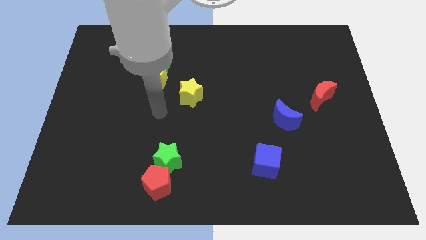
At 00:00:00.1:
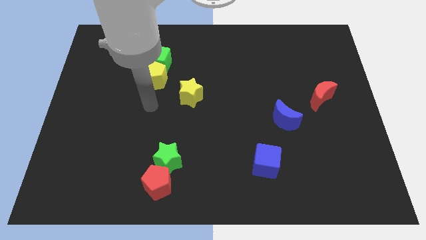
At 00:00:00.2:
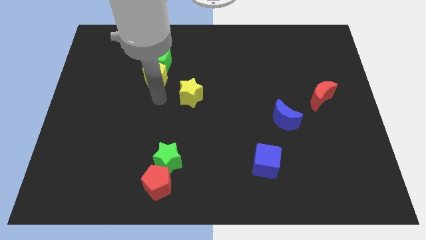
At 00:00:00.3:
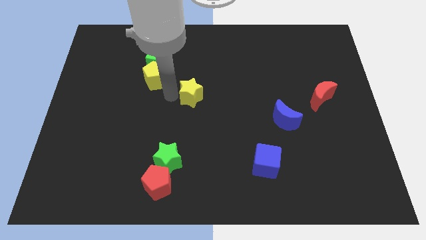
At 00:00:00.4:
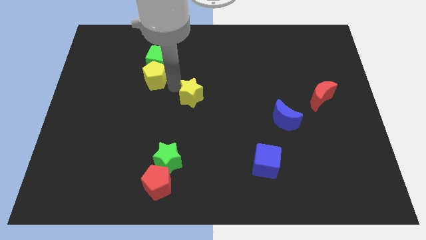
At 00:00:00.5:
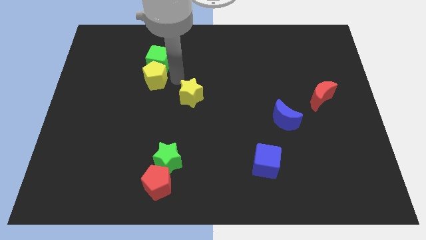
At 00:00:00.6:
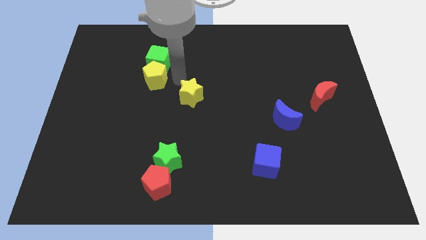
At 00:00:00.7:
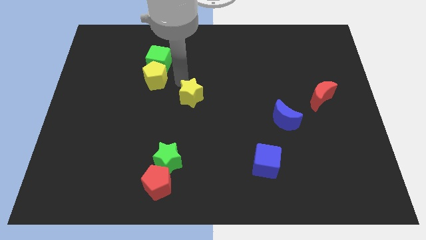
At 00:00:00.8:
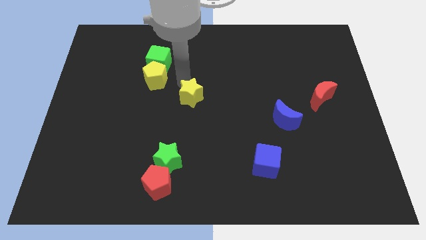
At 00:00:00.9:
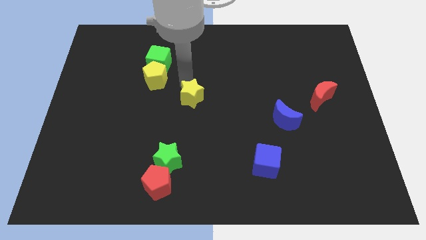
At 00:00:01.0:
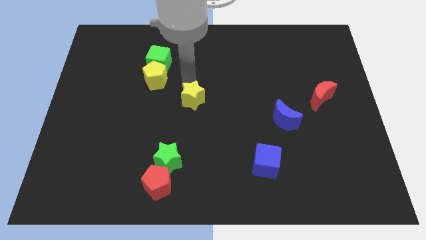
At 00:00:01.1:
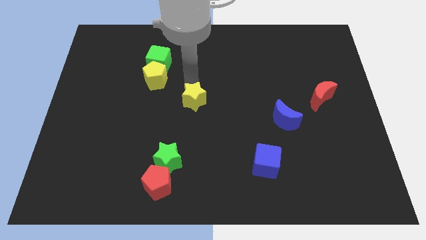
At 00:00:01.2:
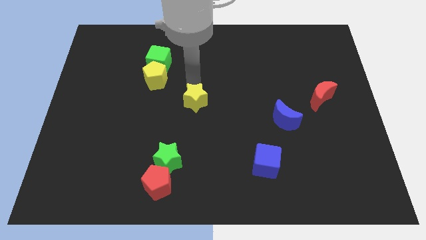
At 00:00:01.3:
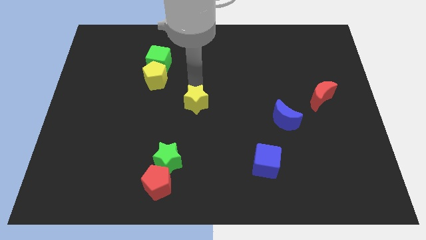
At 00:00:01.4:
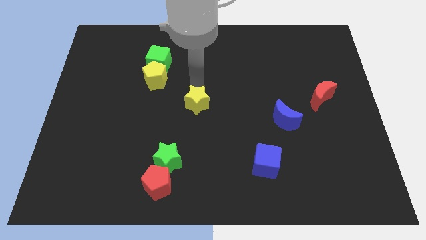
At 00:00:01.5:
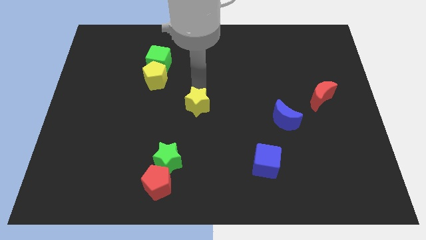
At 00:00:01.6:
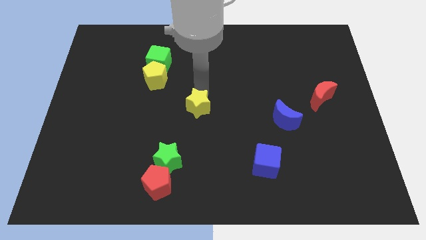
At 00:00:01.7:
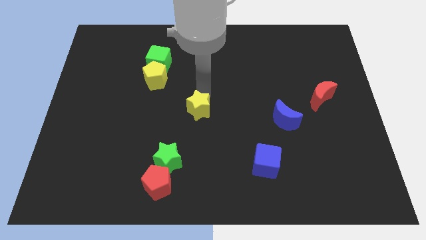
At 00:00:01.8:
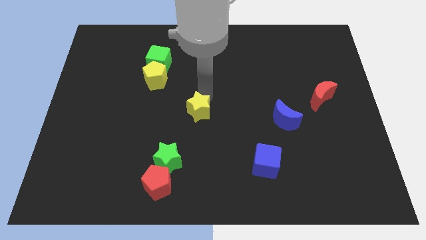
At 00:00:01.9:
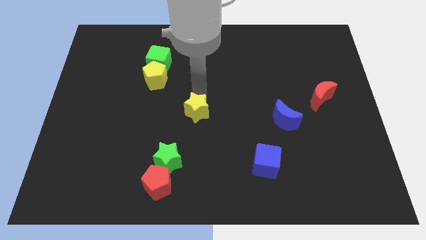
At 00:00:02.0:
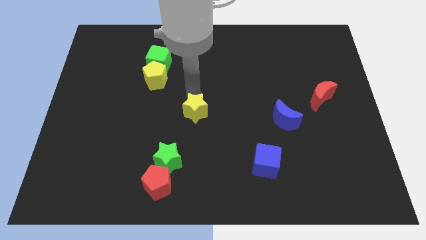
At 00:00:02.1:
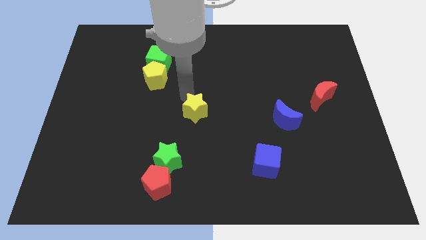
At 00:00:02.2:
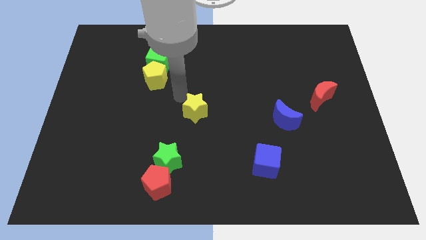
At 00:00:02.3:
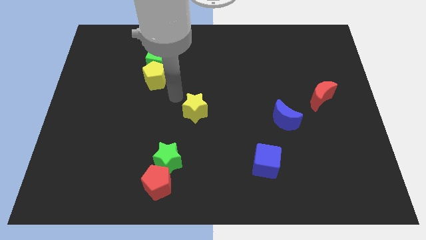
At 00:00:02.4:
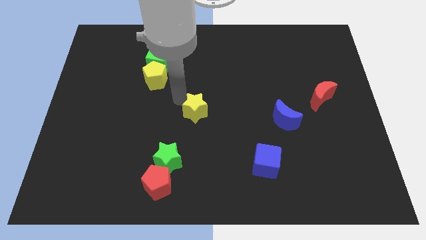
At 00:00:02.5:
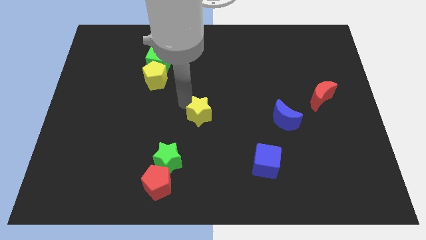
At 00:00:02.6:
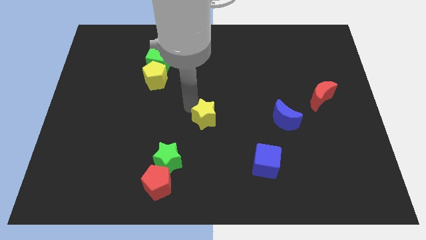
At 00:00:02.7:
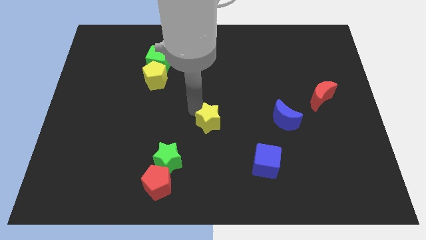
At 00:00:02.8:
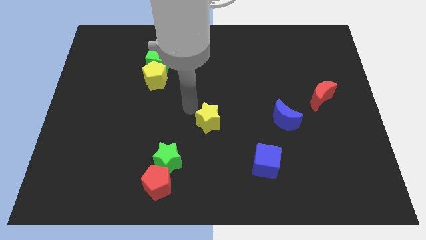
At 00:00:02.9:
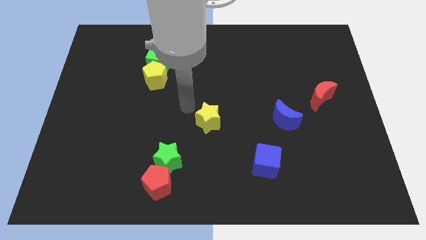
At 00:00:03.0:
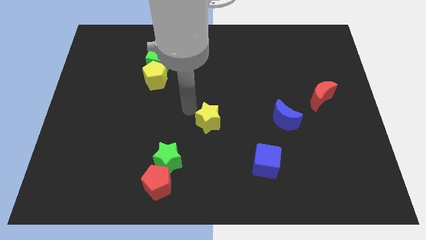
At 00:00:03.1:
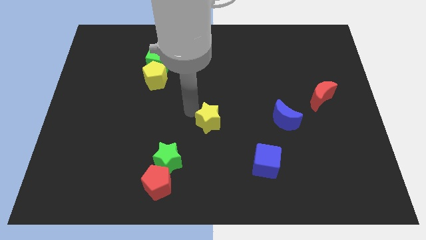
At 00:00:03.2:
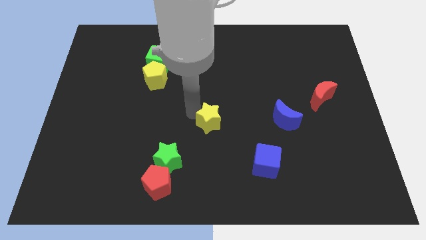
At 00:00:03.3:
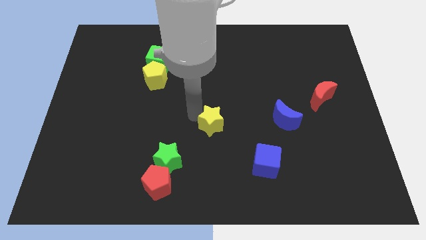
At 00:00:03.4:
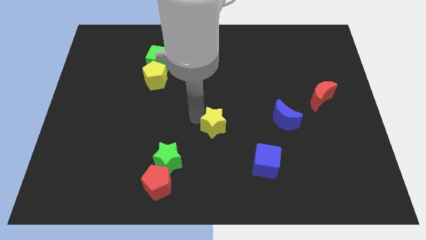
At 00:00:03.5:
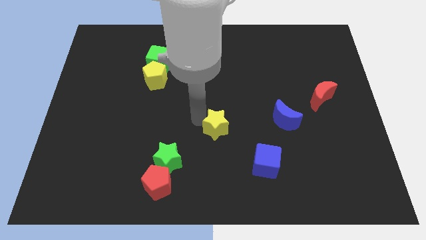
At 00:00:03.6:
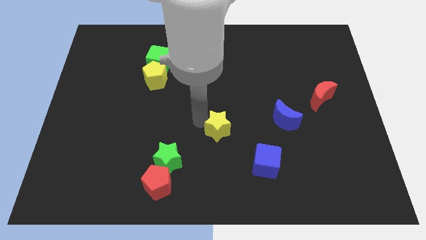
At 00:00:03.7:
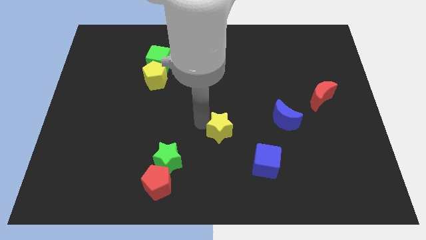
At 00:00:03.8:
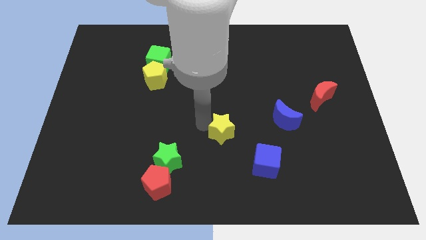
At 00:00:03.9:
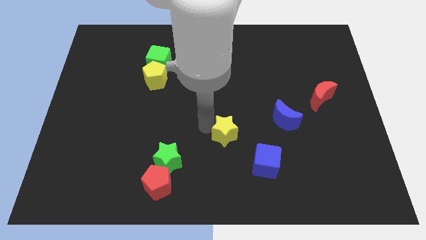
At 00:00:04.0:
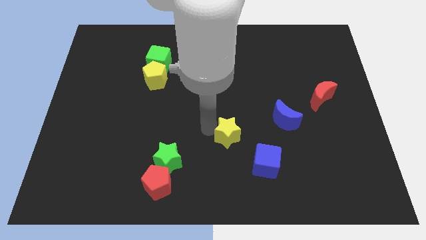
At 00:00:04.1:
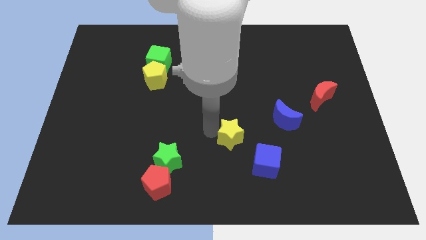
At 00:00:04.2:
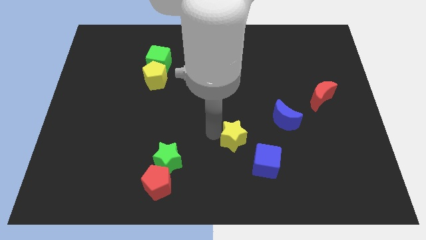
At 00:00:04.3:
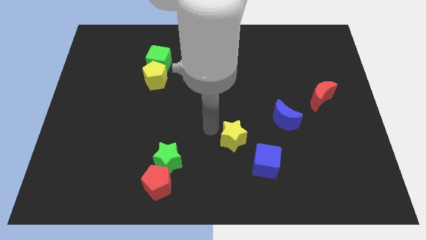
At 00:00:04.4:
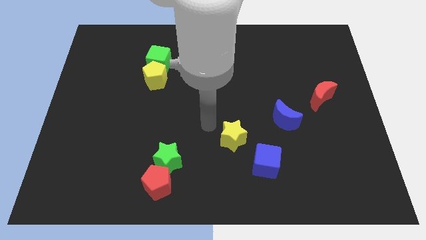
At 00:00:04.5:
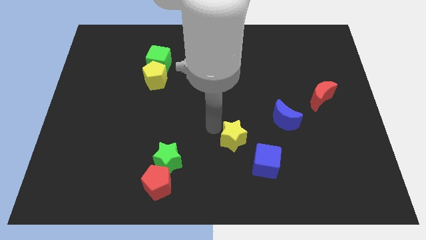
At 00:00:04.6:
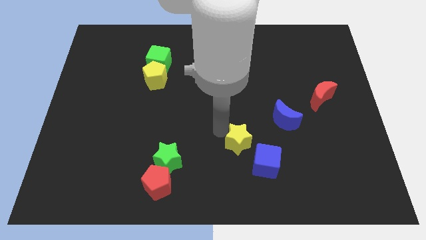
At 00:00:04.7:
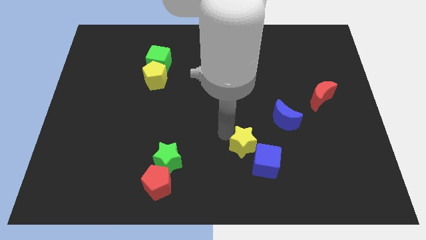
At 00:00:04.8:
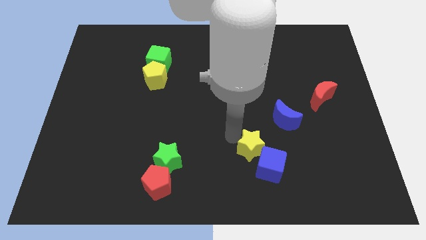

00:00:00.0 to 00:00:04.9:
push the yellow star close to the blue cube

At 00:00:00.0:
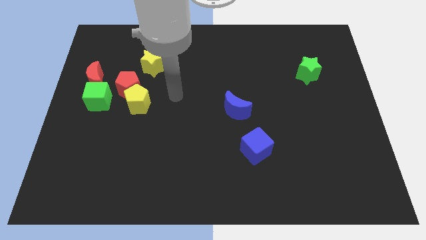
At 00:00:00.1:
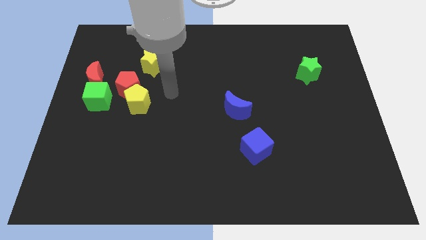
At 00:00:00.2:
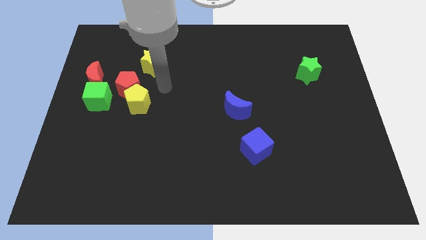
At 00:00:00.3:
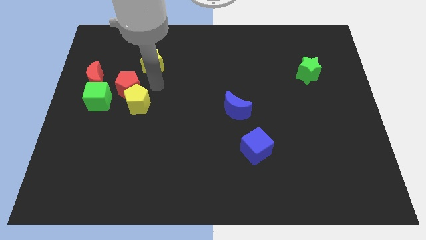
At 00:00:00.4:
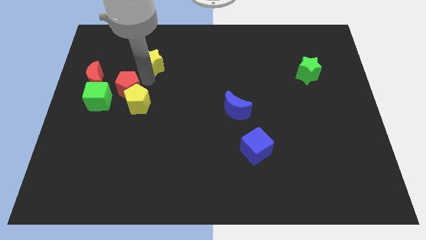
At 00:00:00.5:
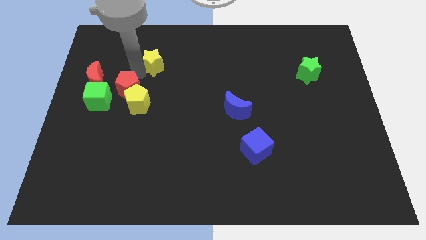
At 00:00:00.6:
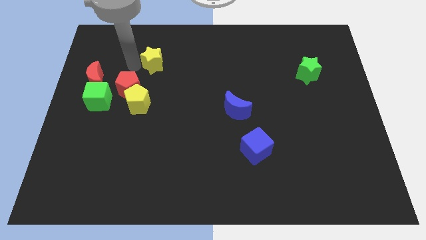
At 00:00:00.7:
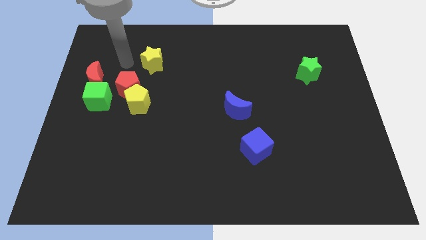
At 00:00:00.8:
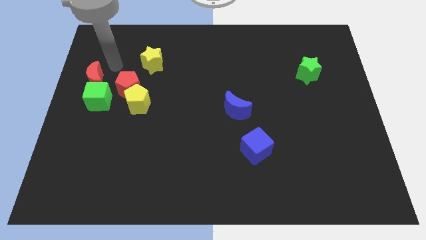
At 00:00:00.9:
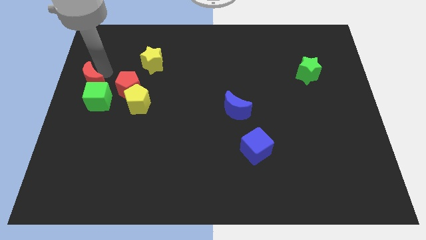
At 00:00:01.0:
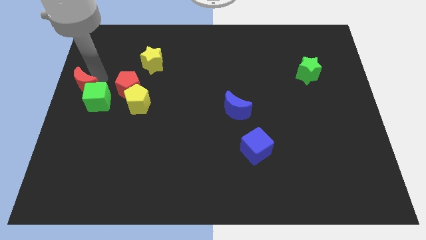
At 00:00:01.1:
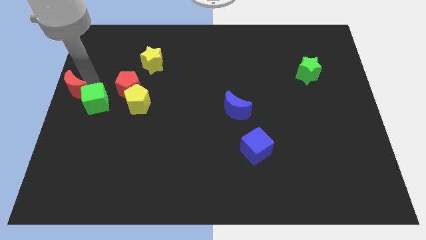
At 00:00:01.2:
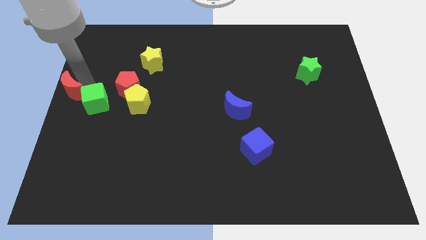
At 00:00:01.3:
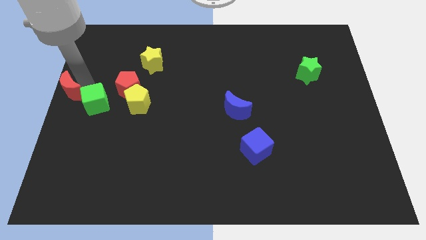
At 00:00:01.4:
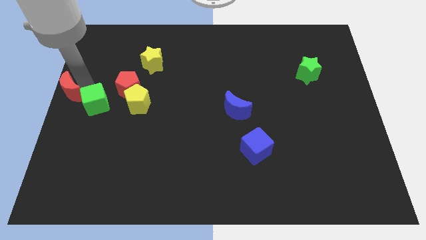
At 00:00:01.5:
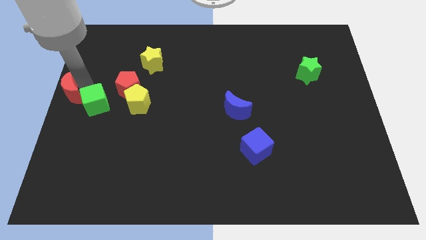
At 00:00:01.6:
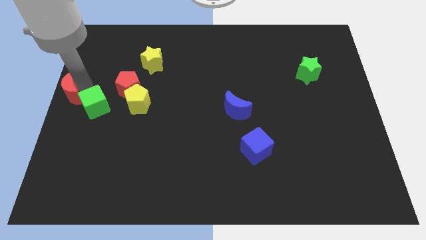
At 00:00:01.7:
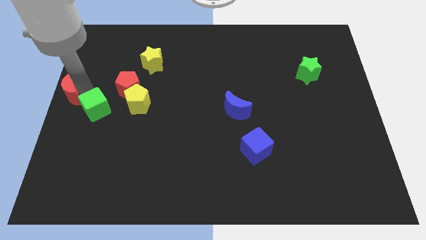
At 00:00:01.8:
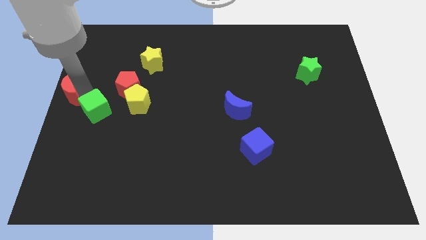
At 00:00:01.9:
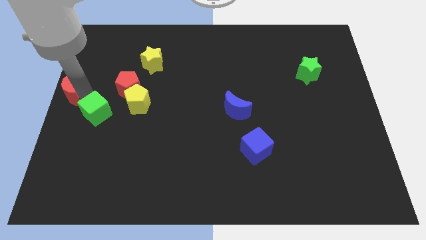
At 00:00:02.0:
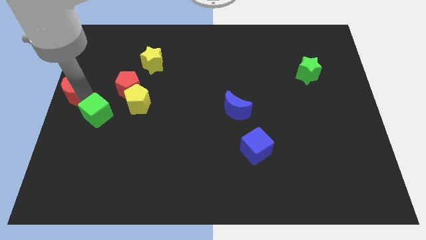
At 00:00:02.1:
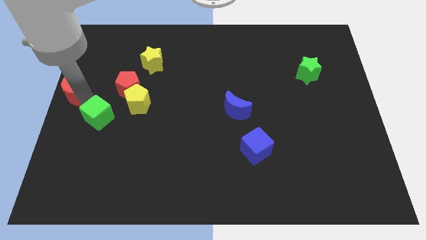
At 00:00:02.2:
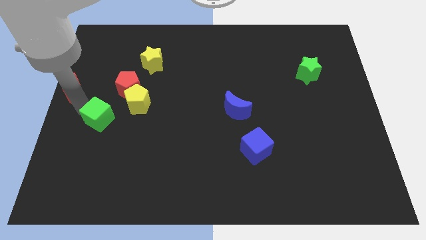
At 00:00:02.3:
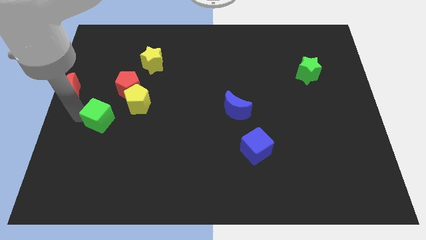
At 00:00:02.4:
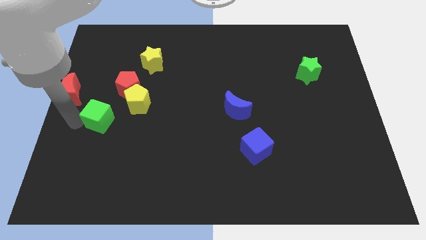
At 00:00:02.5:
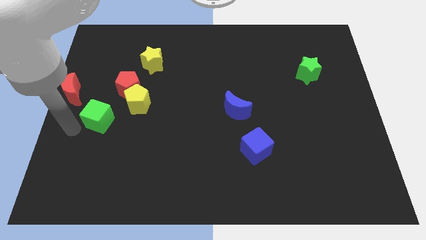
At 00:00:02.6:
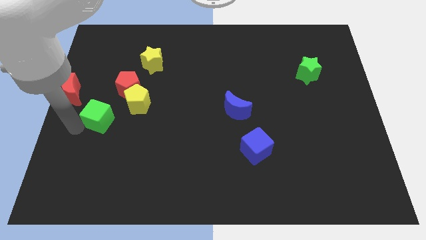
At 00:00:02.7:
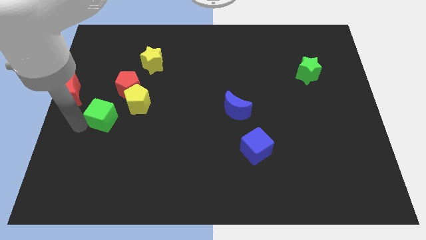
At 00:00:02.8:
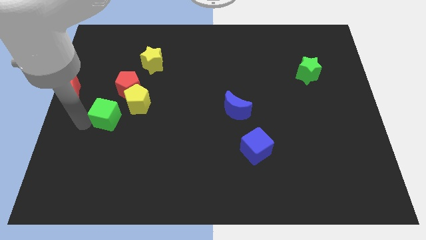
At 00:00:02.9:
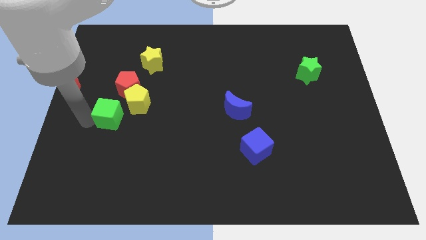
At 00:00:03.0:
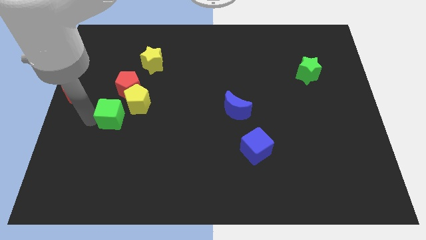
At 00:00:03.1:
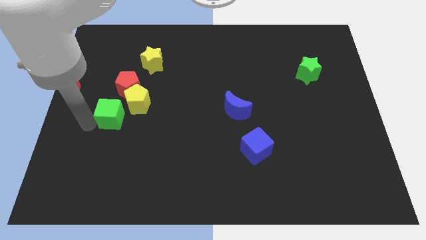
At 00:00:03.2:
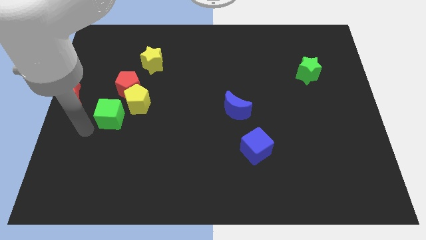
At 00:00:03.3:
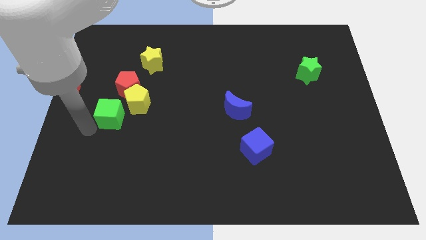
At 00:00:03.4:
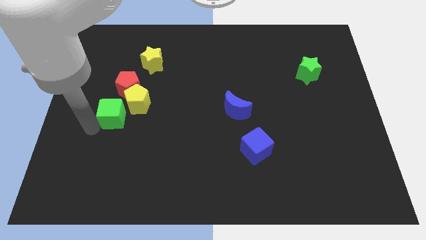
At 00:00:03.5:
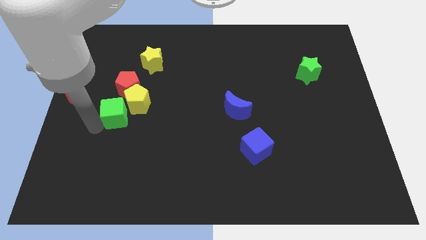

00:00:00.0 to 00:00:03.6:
move the green cube close to the yellow pentagon
